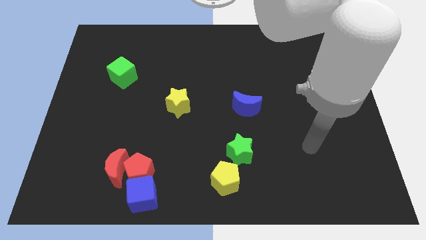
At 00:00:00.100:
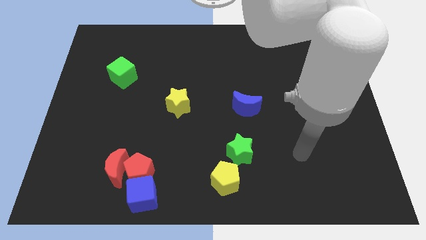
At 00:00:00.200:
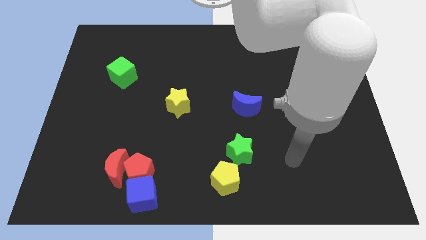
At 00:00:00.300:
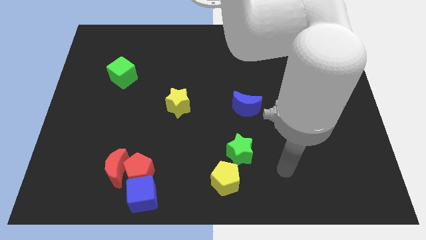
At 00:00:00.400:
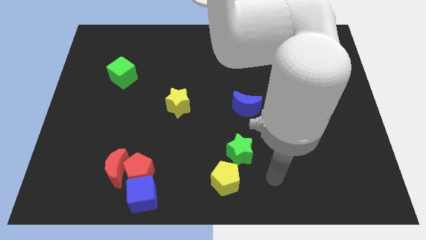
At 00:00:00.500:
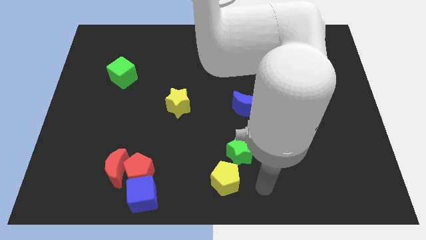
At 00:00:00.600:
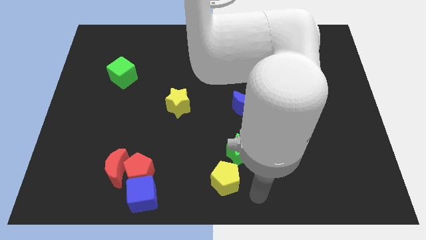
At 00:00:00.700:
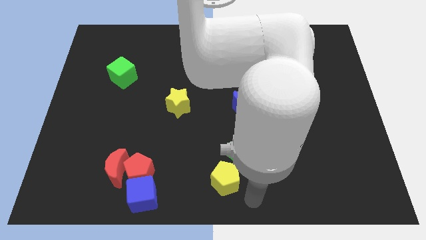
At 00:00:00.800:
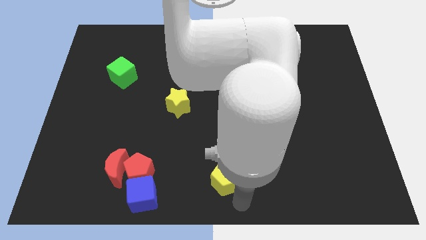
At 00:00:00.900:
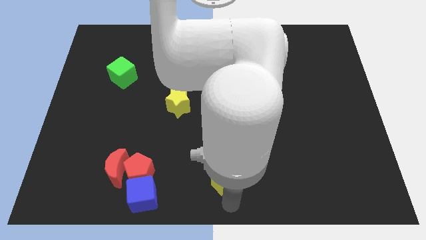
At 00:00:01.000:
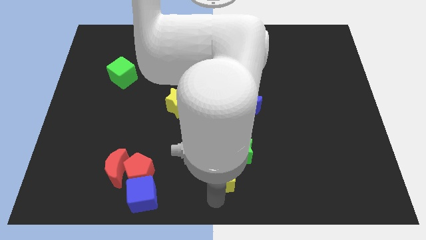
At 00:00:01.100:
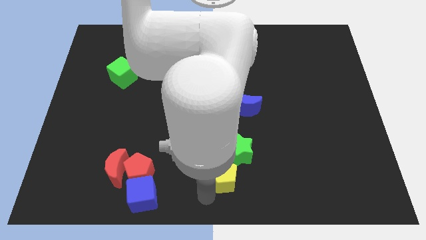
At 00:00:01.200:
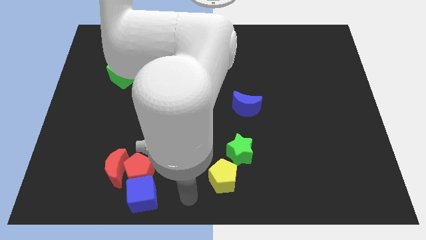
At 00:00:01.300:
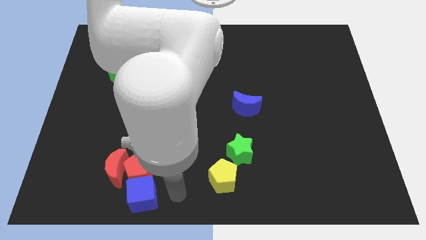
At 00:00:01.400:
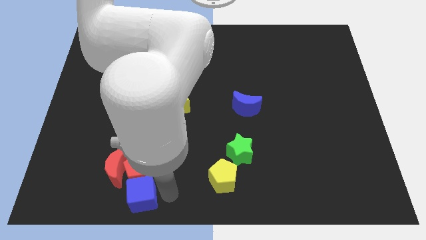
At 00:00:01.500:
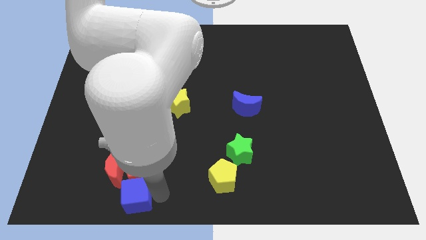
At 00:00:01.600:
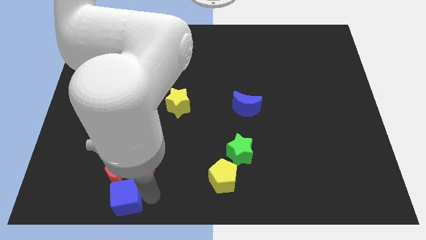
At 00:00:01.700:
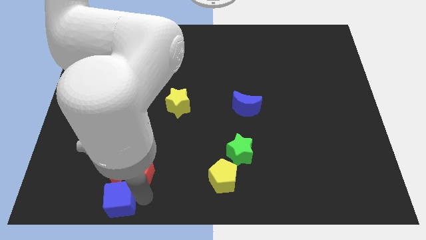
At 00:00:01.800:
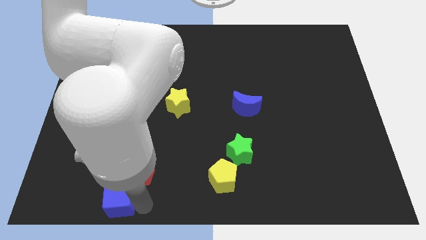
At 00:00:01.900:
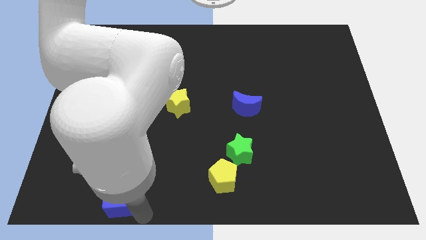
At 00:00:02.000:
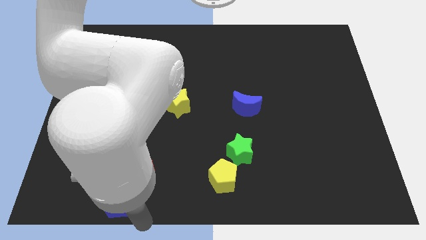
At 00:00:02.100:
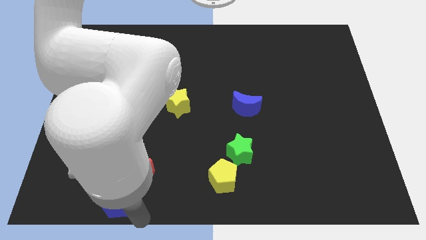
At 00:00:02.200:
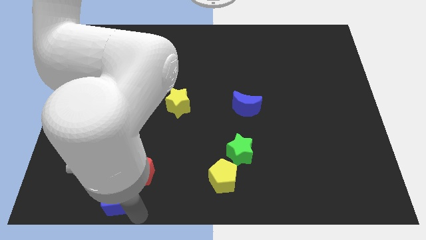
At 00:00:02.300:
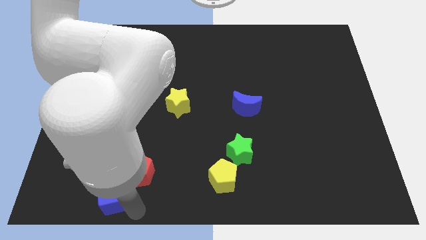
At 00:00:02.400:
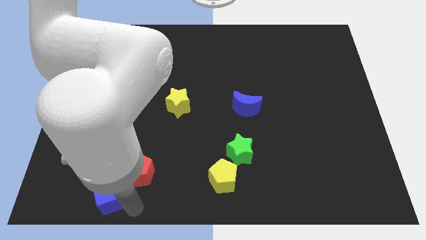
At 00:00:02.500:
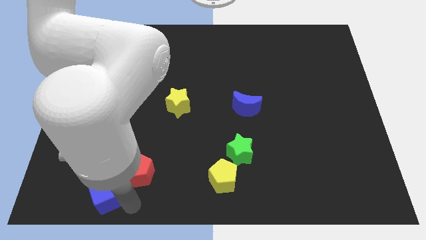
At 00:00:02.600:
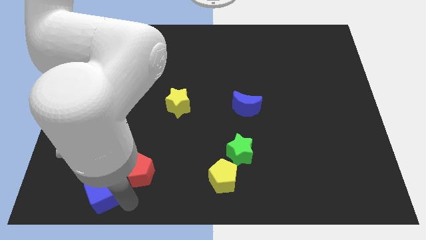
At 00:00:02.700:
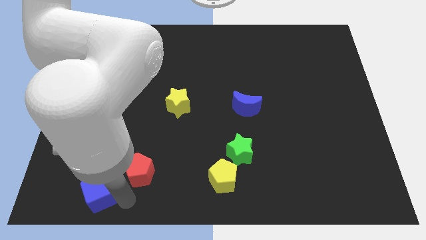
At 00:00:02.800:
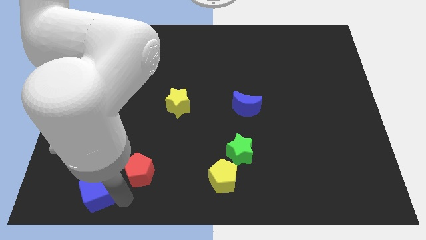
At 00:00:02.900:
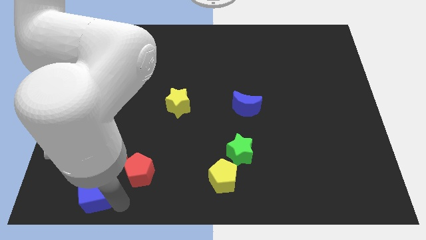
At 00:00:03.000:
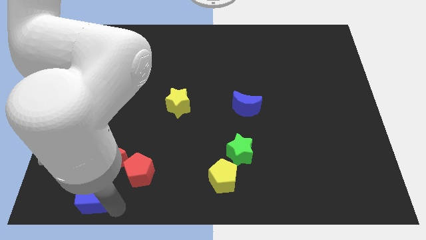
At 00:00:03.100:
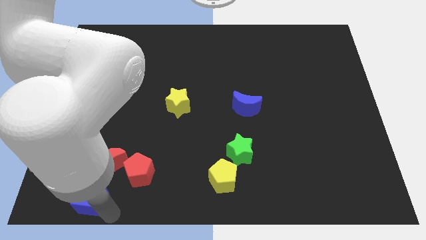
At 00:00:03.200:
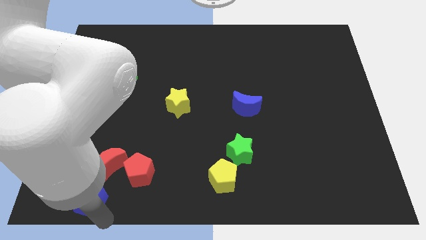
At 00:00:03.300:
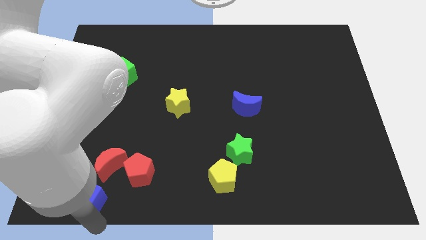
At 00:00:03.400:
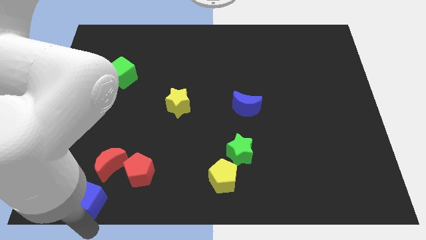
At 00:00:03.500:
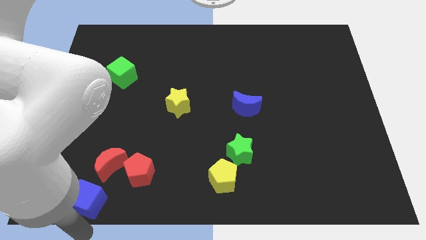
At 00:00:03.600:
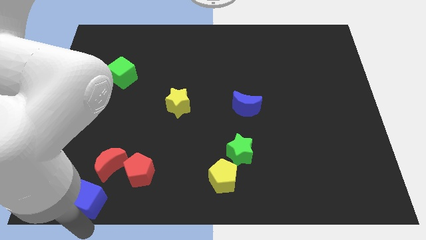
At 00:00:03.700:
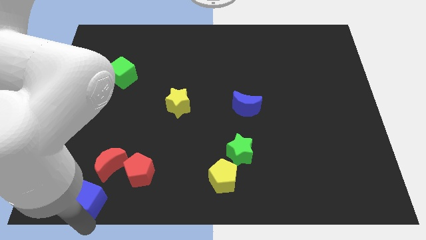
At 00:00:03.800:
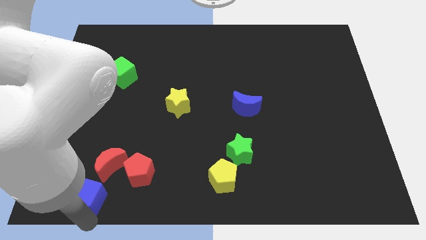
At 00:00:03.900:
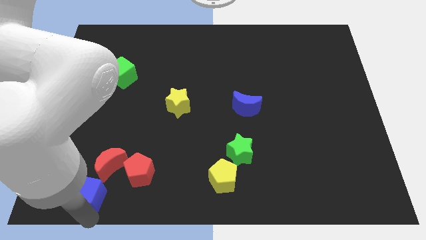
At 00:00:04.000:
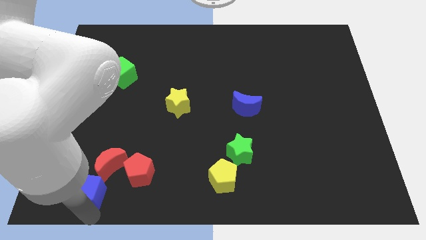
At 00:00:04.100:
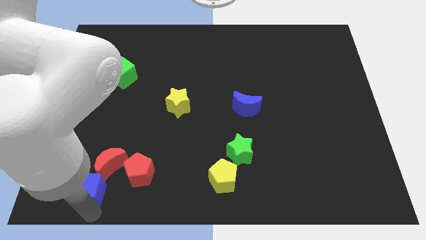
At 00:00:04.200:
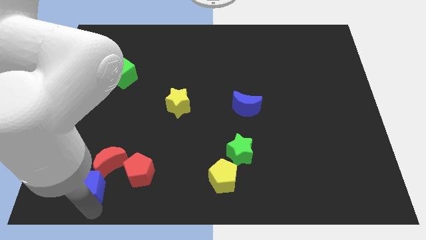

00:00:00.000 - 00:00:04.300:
push the blue cube up and to the left a bit

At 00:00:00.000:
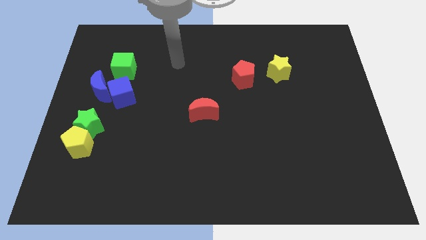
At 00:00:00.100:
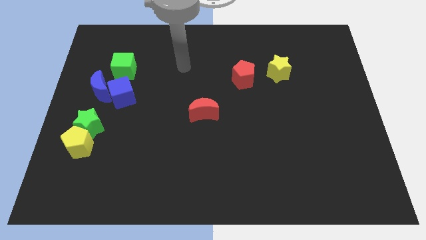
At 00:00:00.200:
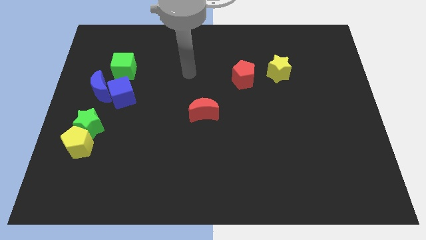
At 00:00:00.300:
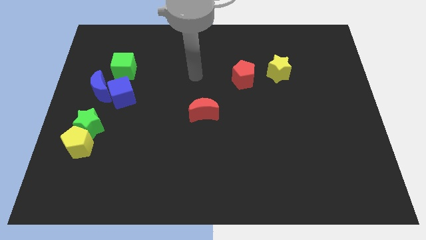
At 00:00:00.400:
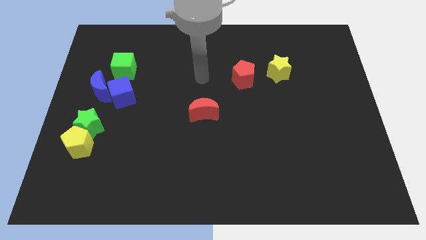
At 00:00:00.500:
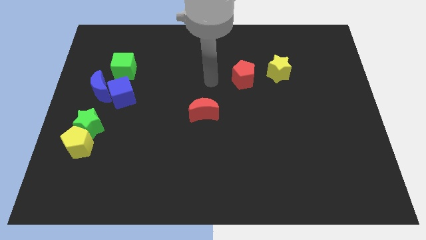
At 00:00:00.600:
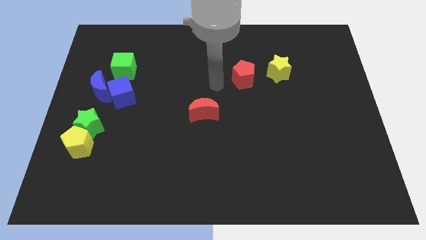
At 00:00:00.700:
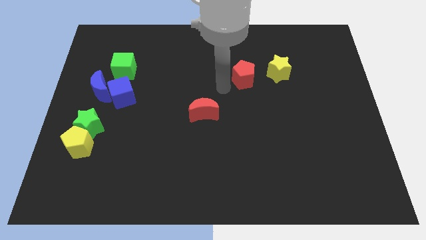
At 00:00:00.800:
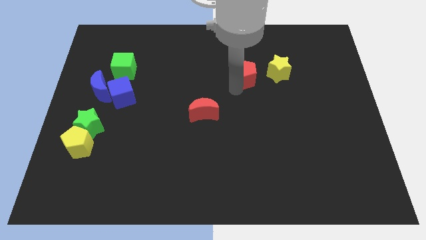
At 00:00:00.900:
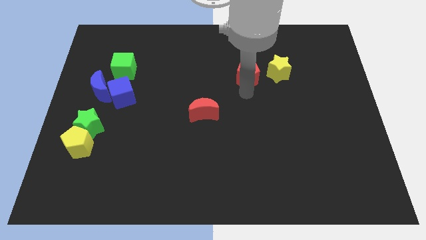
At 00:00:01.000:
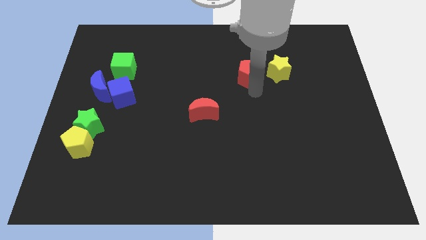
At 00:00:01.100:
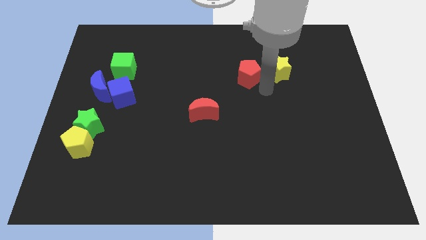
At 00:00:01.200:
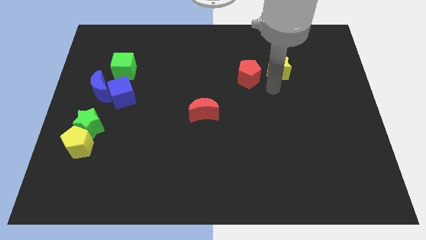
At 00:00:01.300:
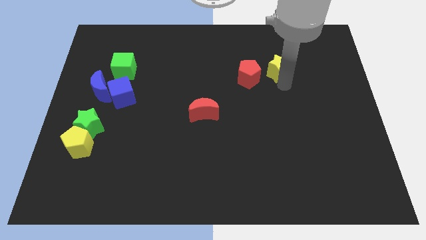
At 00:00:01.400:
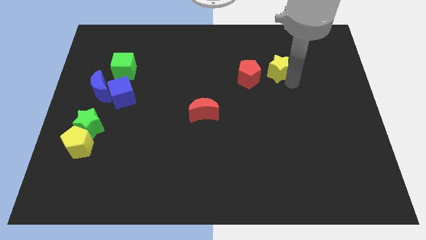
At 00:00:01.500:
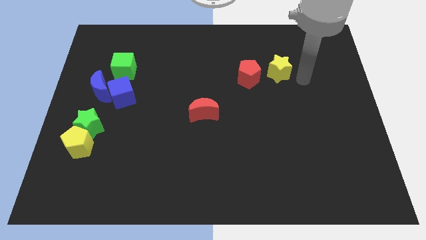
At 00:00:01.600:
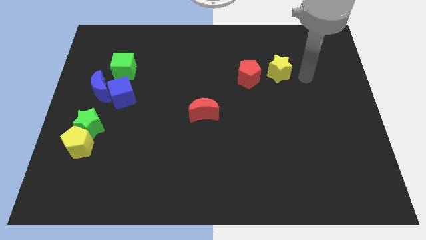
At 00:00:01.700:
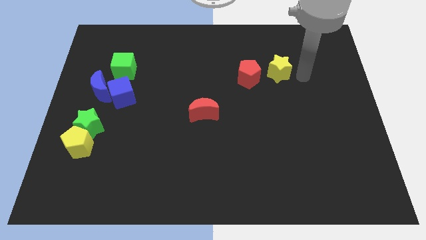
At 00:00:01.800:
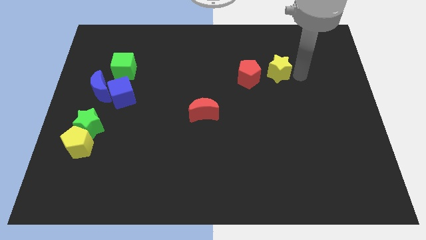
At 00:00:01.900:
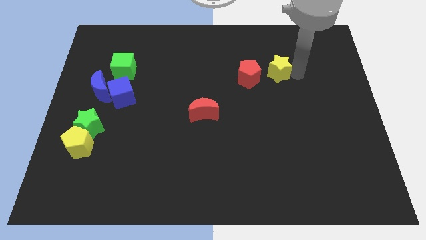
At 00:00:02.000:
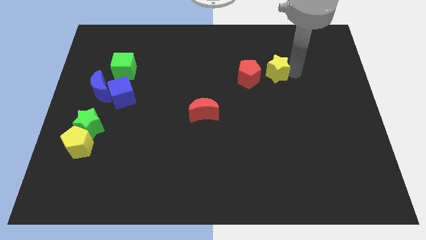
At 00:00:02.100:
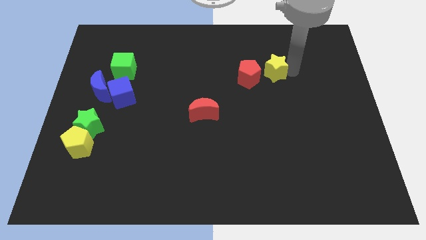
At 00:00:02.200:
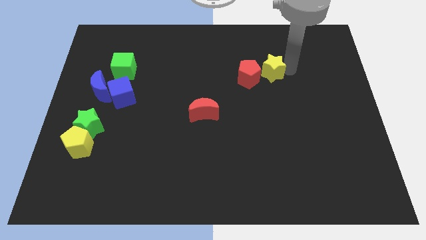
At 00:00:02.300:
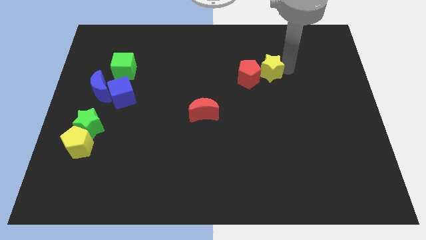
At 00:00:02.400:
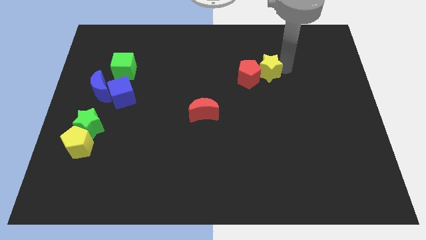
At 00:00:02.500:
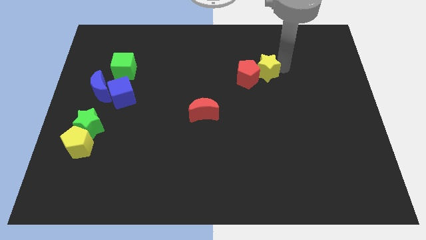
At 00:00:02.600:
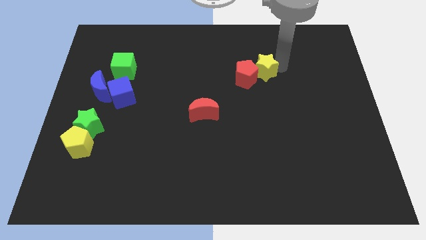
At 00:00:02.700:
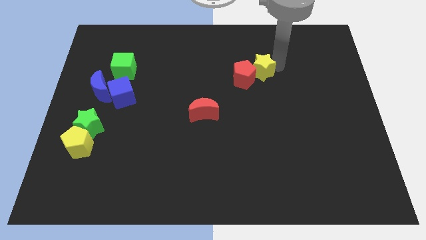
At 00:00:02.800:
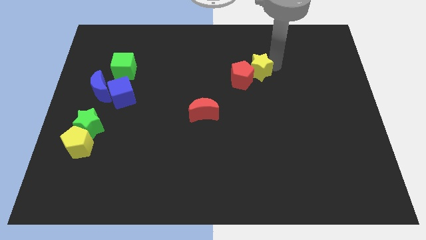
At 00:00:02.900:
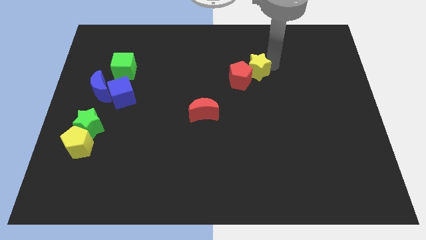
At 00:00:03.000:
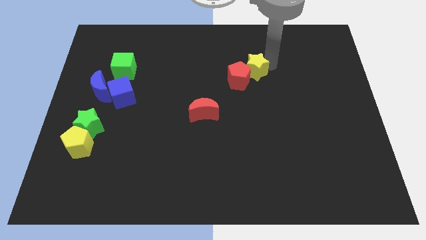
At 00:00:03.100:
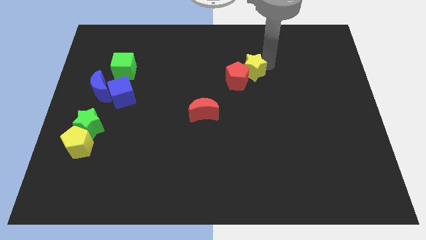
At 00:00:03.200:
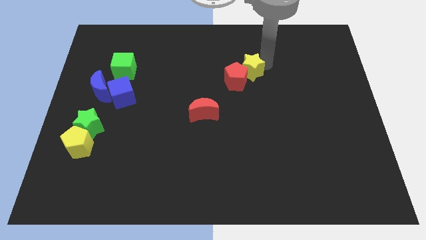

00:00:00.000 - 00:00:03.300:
push the yellow star left slightly

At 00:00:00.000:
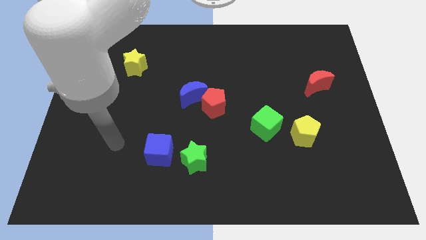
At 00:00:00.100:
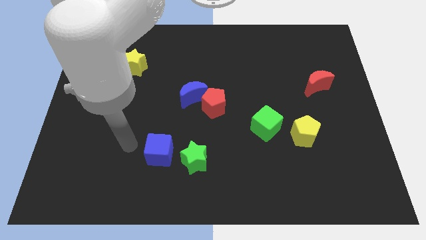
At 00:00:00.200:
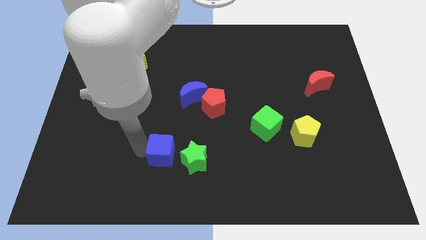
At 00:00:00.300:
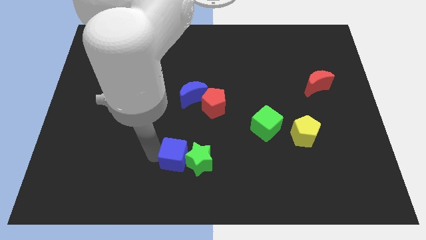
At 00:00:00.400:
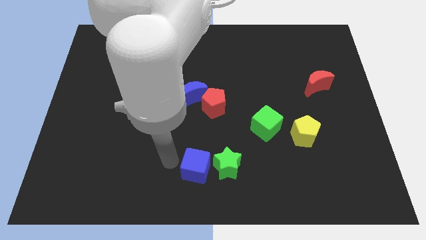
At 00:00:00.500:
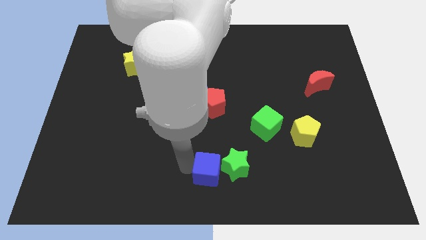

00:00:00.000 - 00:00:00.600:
move the green star right slightly
